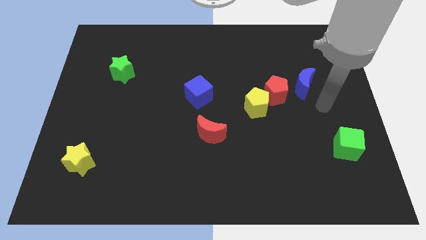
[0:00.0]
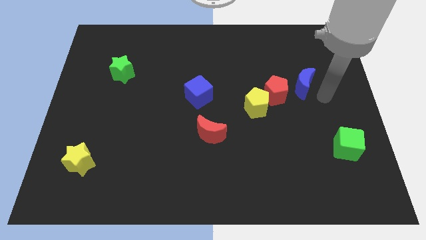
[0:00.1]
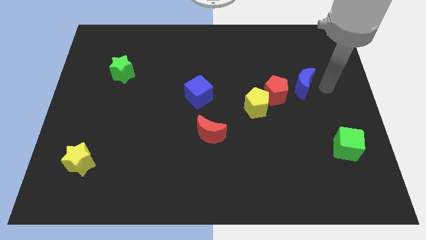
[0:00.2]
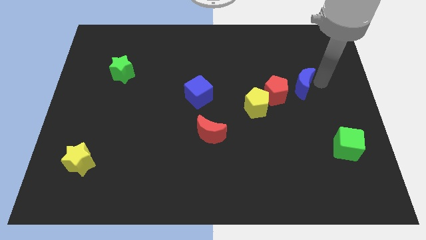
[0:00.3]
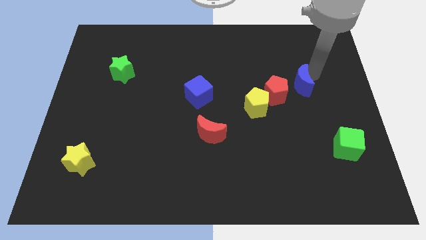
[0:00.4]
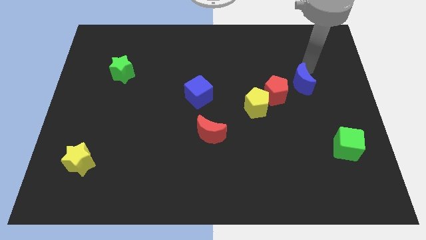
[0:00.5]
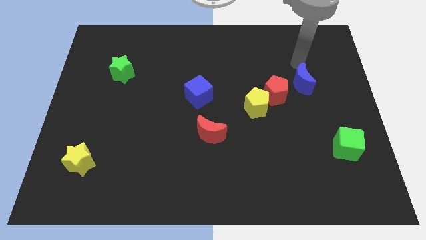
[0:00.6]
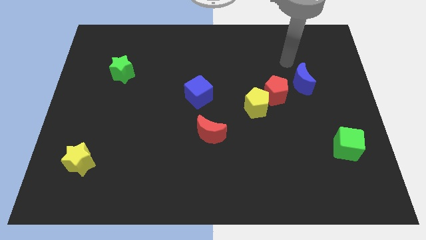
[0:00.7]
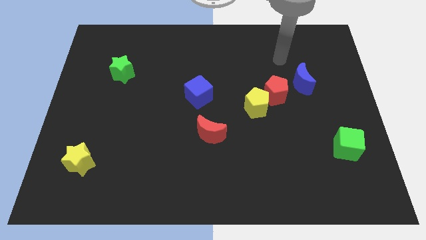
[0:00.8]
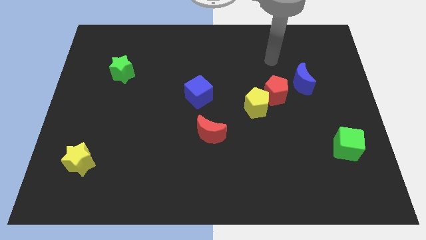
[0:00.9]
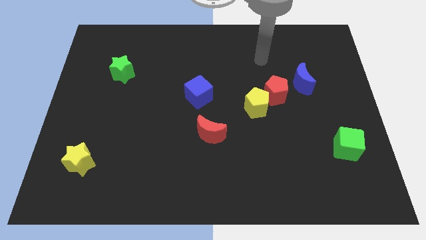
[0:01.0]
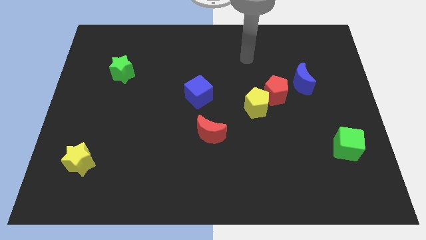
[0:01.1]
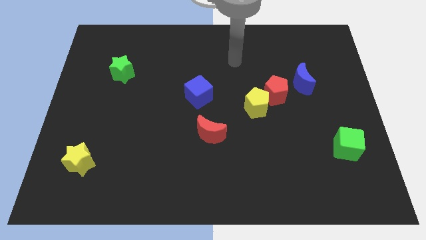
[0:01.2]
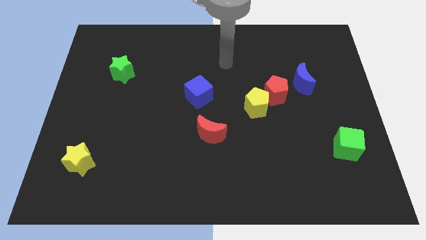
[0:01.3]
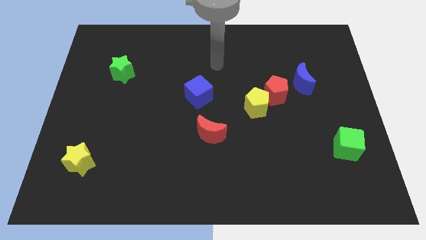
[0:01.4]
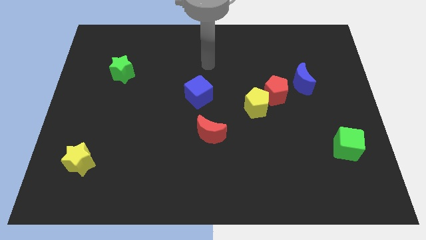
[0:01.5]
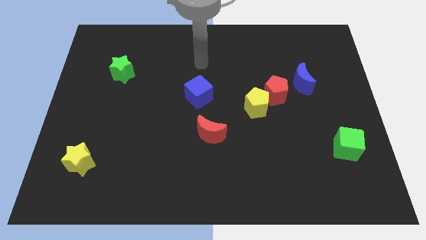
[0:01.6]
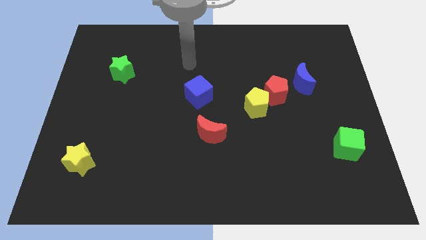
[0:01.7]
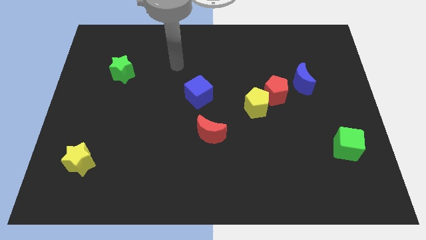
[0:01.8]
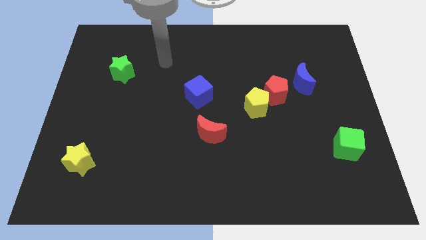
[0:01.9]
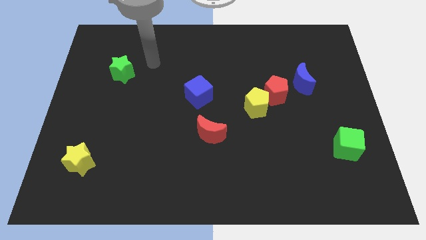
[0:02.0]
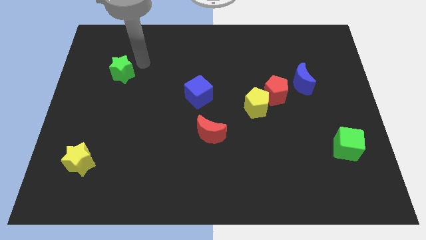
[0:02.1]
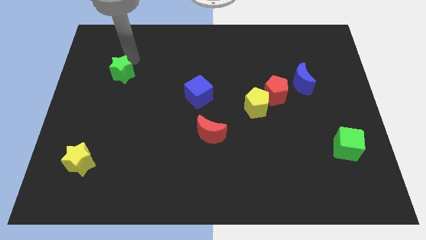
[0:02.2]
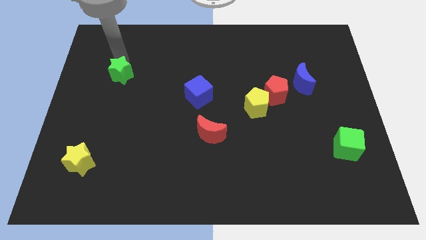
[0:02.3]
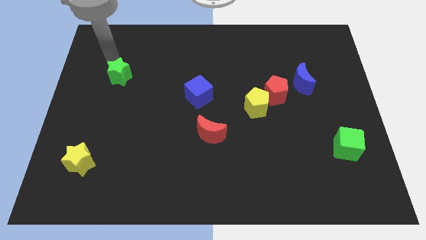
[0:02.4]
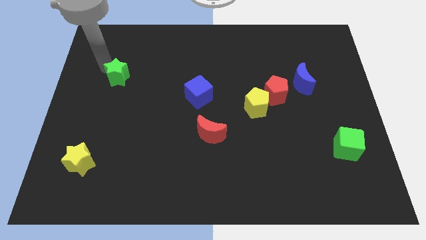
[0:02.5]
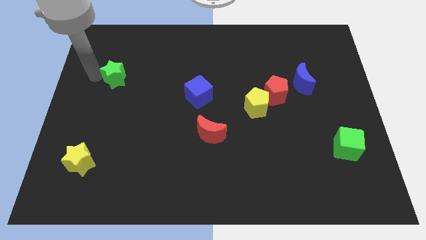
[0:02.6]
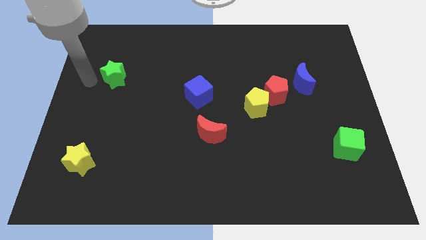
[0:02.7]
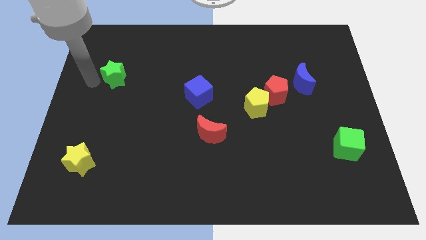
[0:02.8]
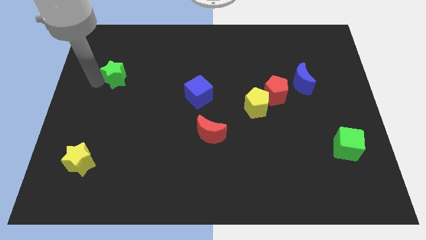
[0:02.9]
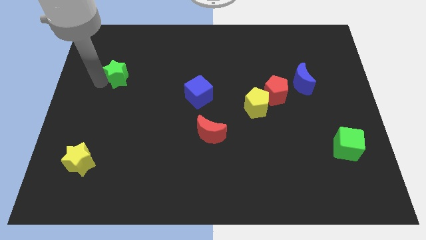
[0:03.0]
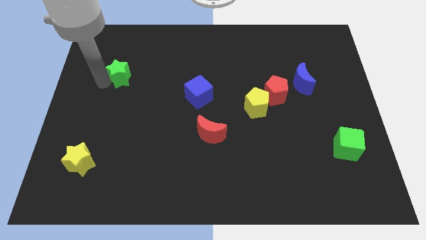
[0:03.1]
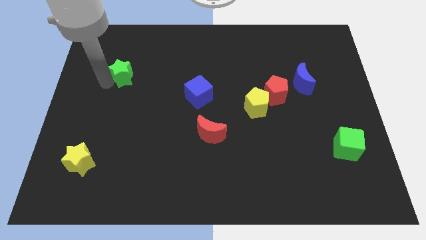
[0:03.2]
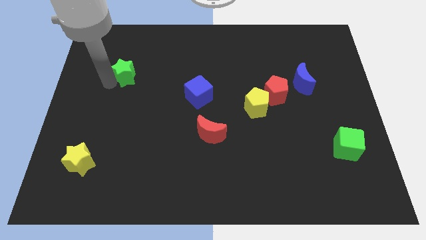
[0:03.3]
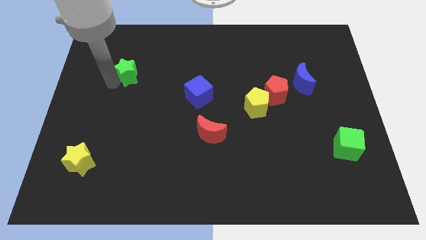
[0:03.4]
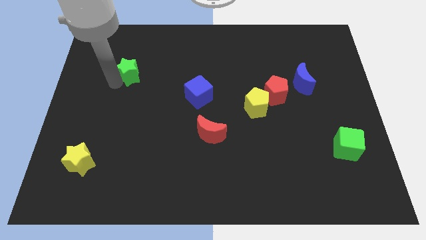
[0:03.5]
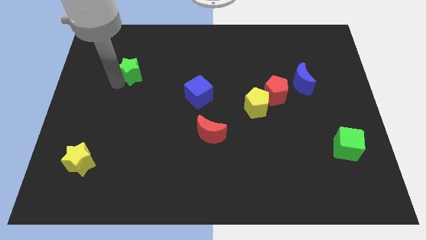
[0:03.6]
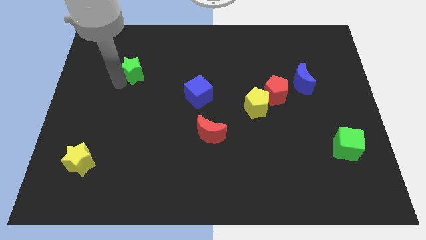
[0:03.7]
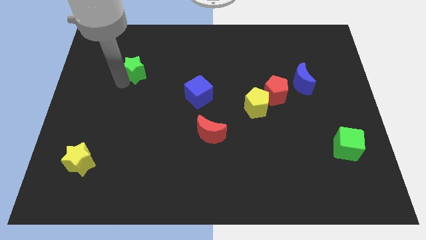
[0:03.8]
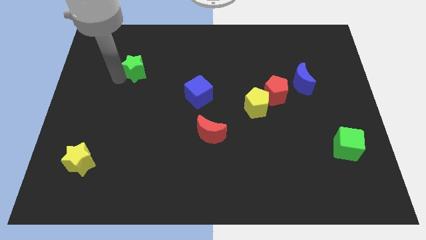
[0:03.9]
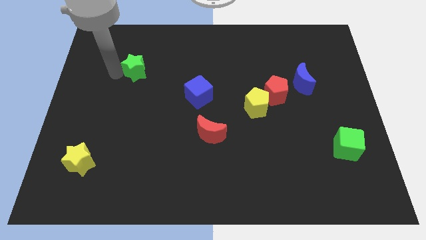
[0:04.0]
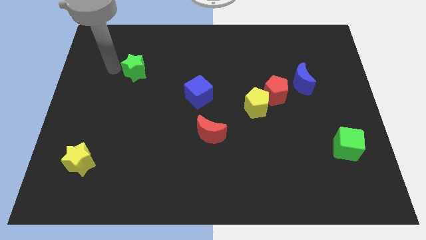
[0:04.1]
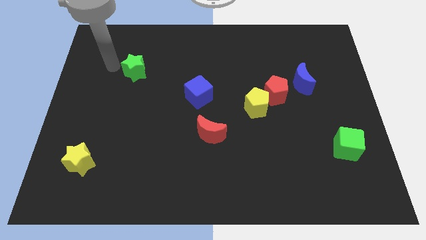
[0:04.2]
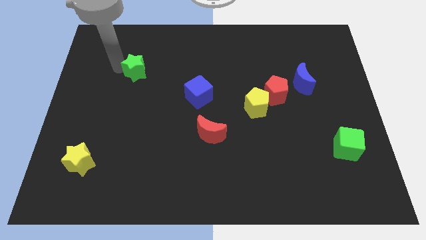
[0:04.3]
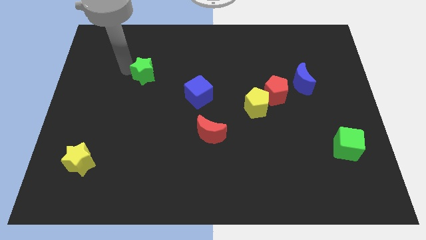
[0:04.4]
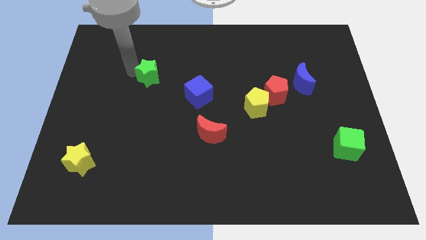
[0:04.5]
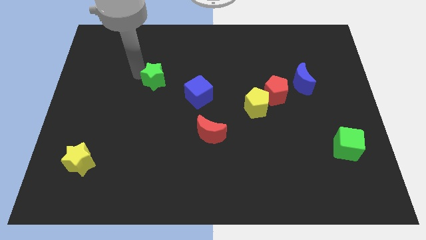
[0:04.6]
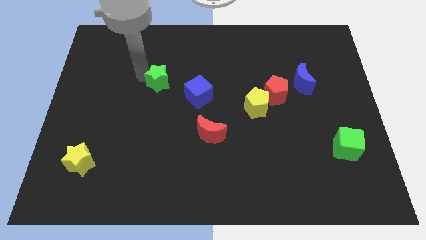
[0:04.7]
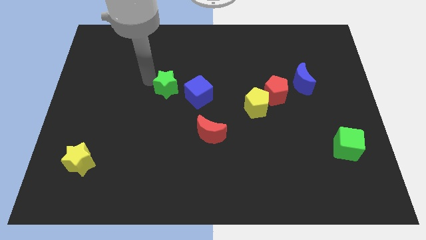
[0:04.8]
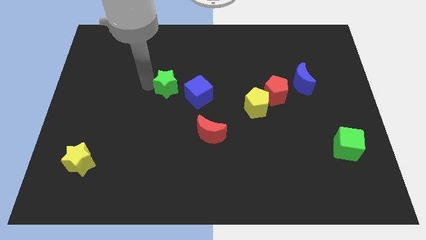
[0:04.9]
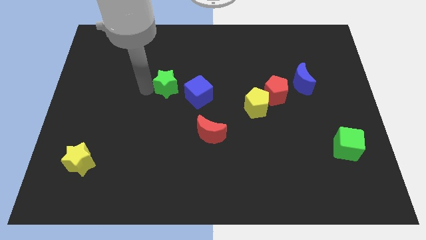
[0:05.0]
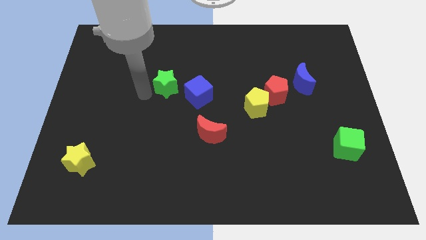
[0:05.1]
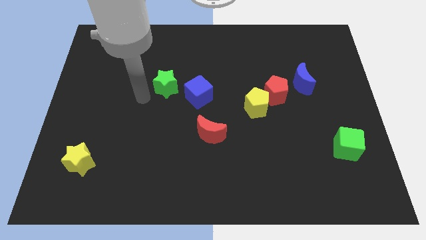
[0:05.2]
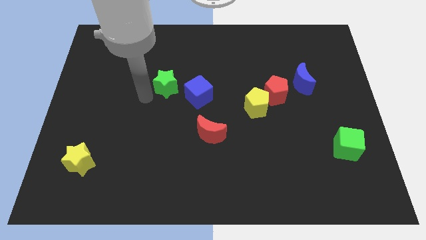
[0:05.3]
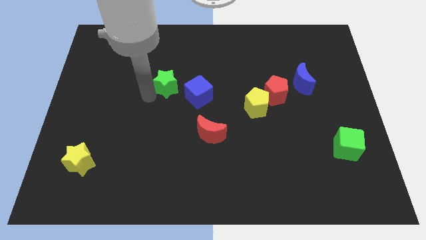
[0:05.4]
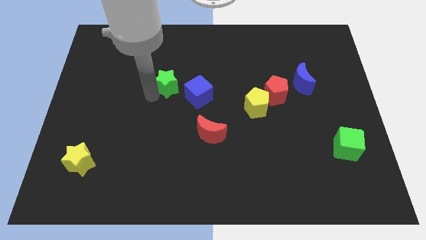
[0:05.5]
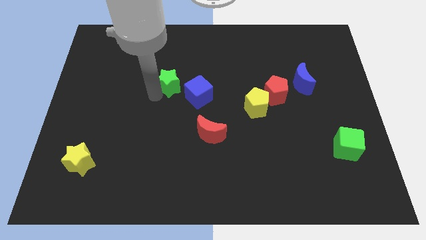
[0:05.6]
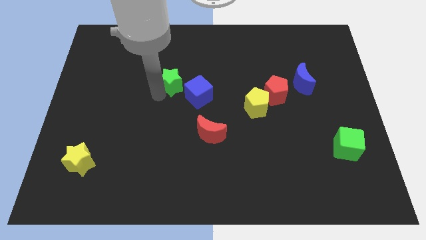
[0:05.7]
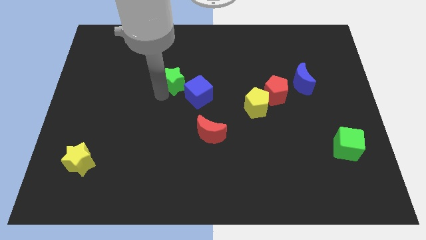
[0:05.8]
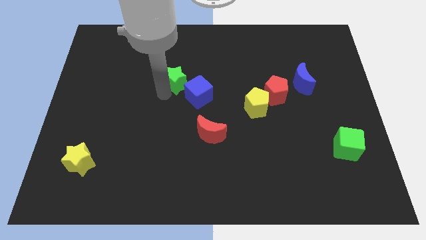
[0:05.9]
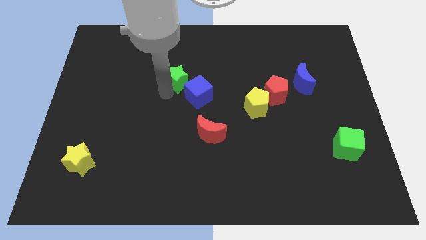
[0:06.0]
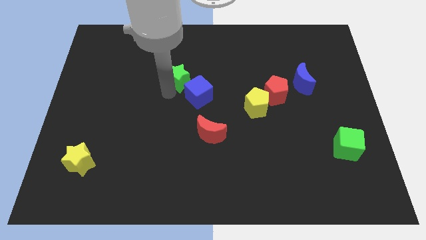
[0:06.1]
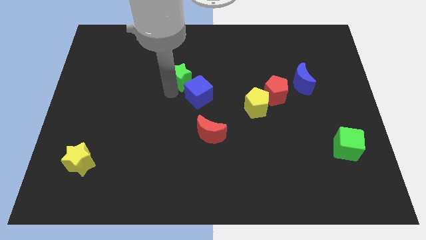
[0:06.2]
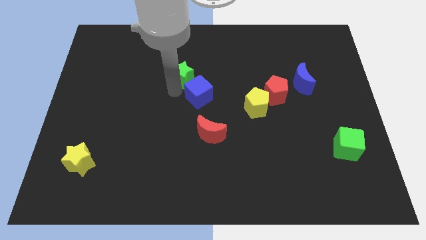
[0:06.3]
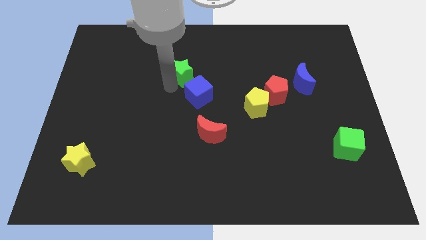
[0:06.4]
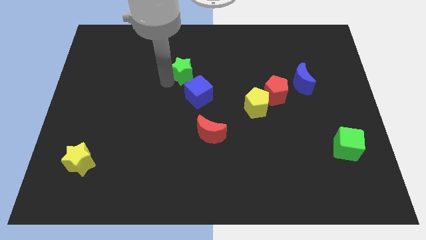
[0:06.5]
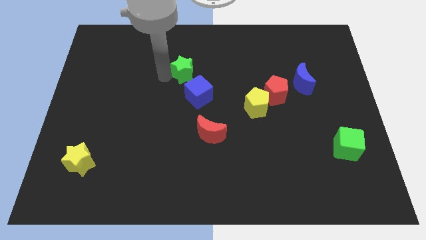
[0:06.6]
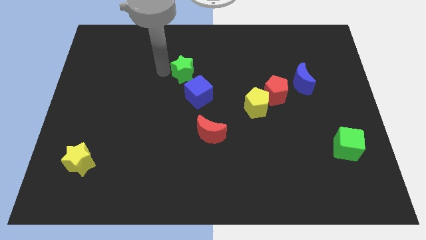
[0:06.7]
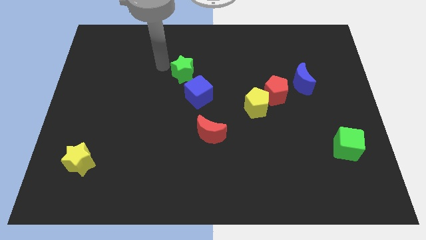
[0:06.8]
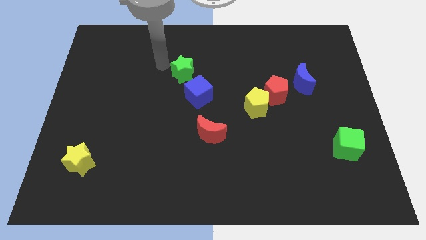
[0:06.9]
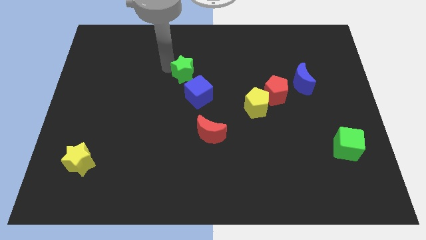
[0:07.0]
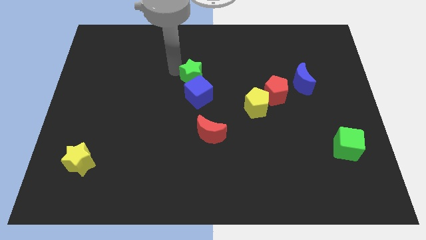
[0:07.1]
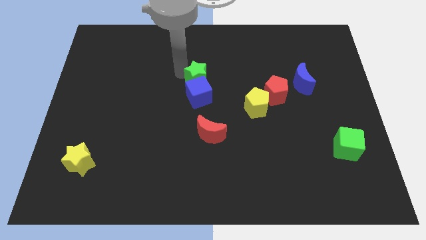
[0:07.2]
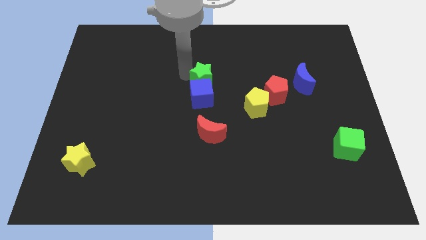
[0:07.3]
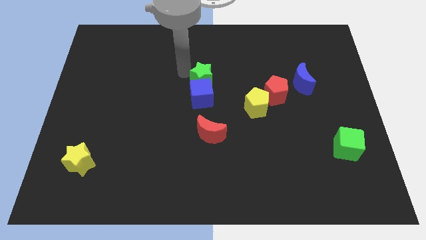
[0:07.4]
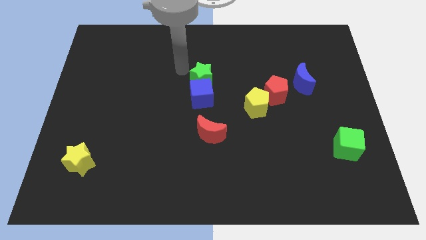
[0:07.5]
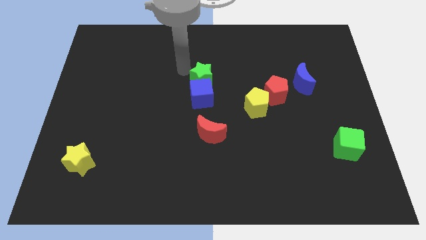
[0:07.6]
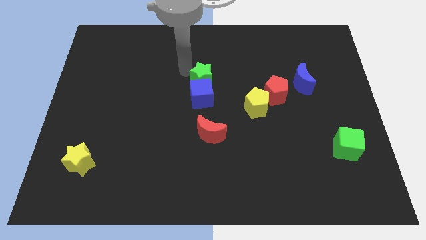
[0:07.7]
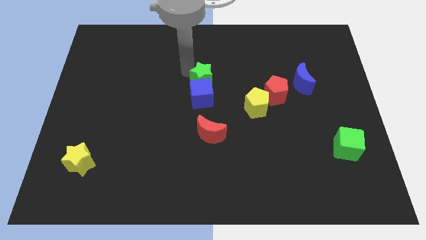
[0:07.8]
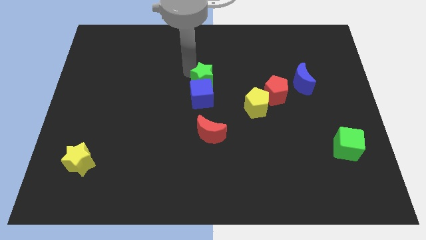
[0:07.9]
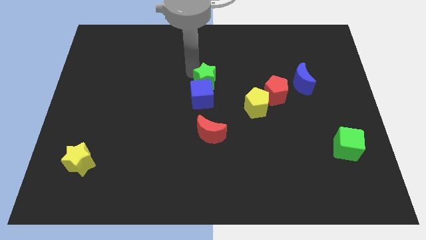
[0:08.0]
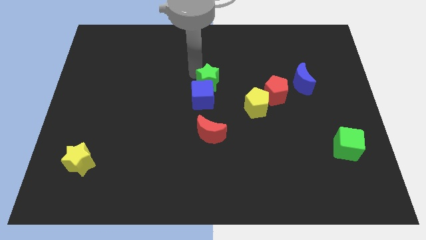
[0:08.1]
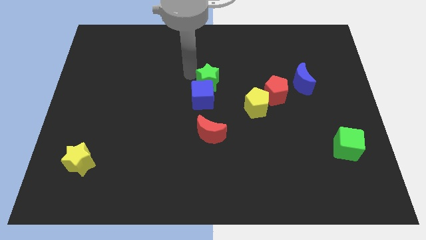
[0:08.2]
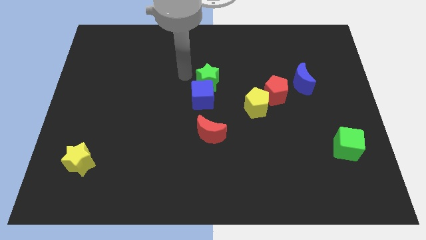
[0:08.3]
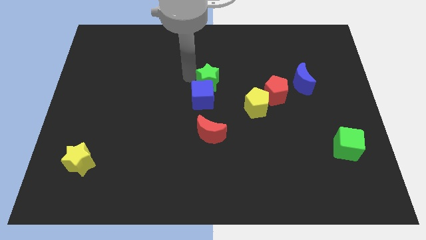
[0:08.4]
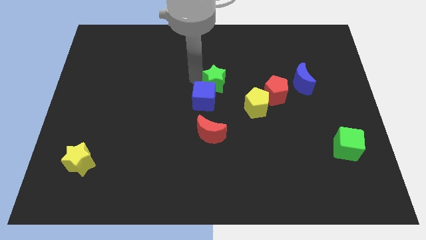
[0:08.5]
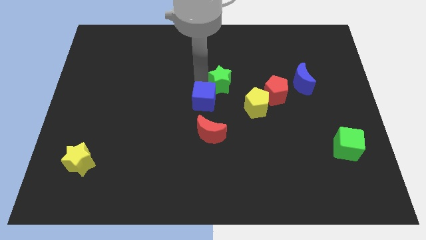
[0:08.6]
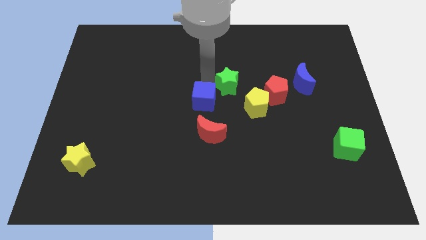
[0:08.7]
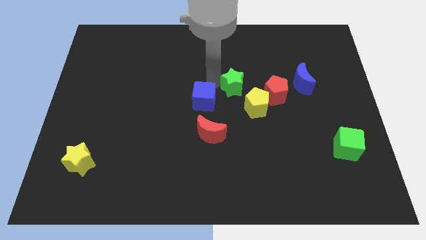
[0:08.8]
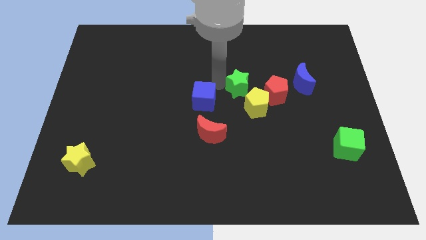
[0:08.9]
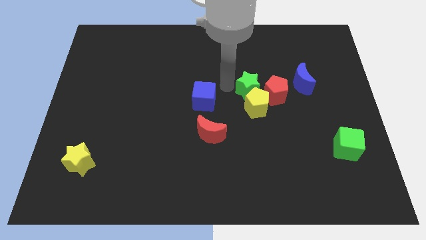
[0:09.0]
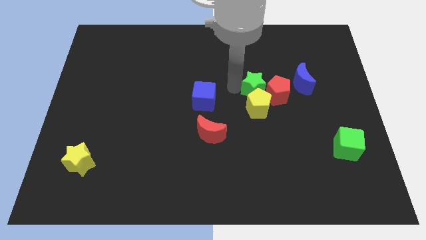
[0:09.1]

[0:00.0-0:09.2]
push the green star close to the red pentagon
